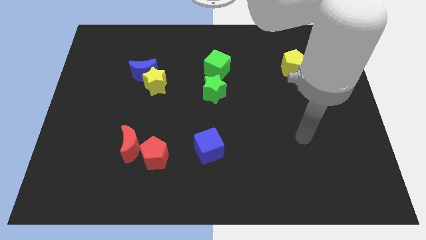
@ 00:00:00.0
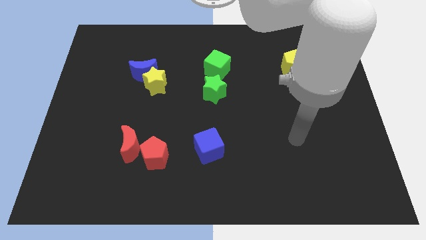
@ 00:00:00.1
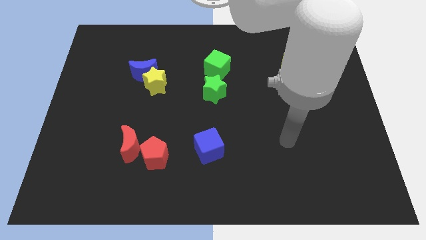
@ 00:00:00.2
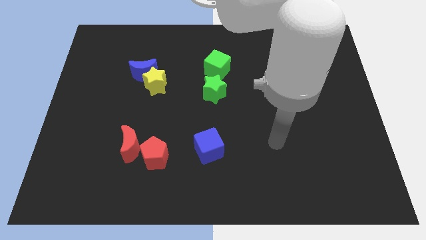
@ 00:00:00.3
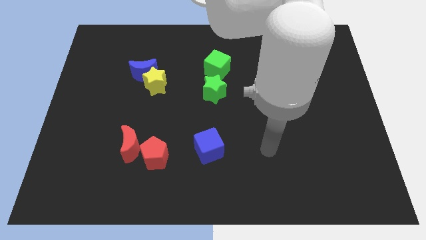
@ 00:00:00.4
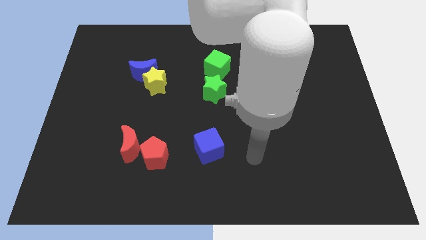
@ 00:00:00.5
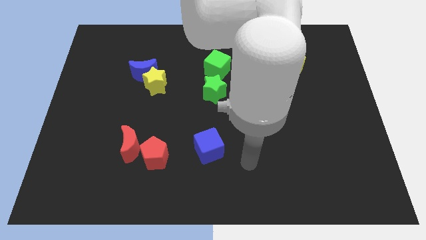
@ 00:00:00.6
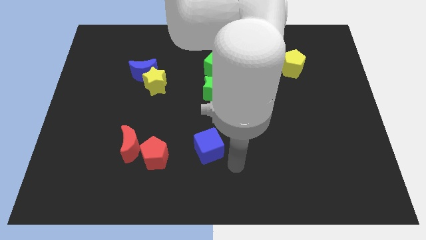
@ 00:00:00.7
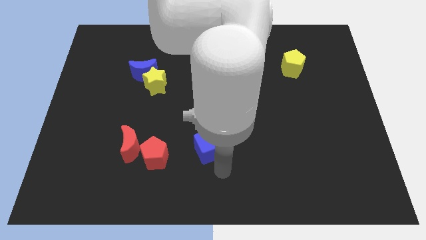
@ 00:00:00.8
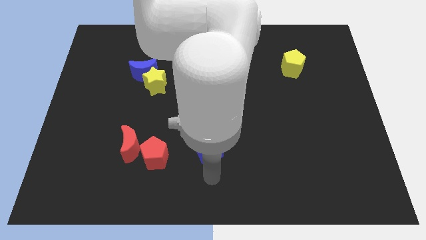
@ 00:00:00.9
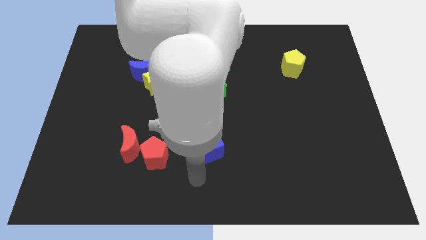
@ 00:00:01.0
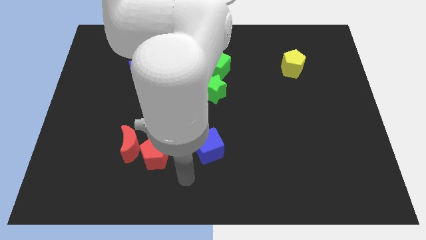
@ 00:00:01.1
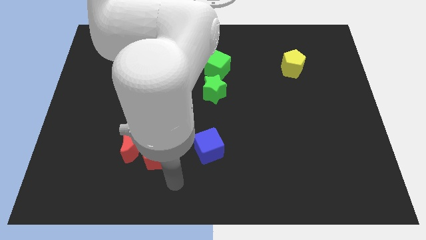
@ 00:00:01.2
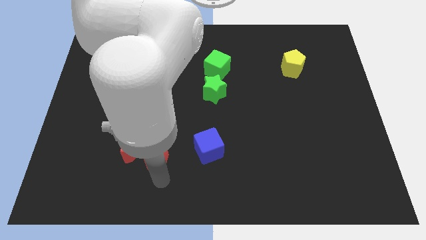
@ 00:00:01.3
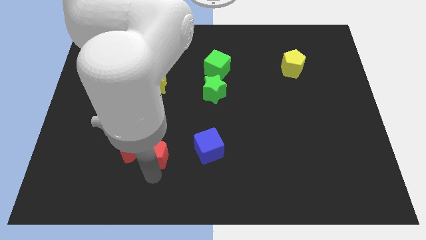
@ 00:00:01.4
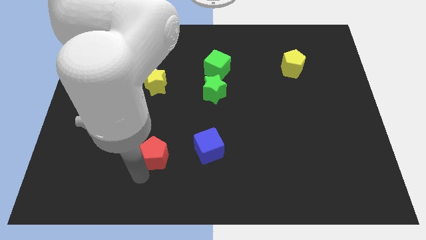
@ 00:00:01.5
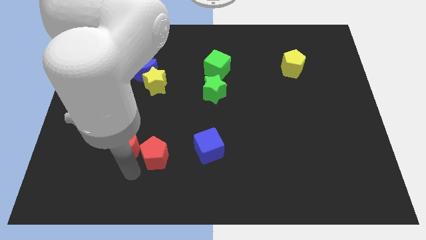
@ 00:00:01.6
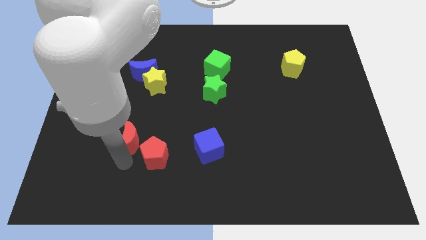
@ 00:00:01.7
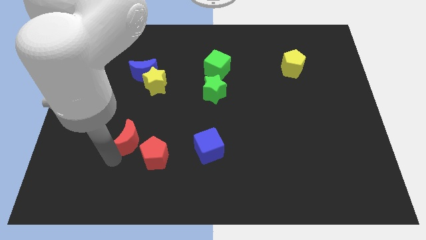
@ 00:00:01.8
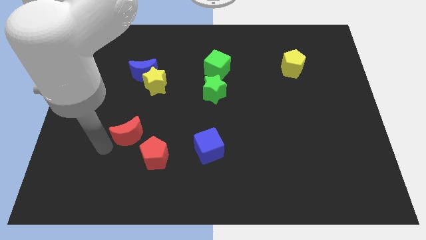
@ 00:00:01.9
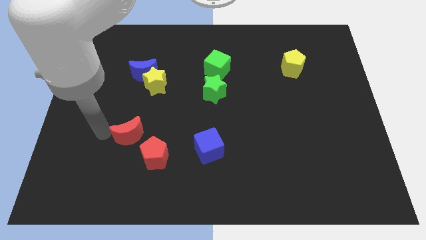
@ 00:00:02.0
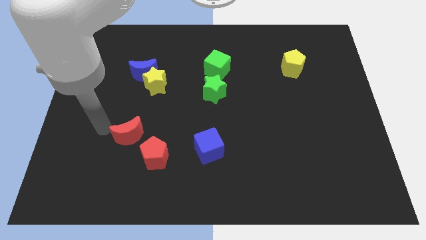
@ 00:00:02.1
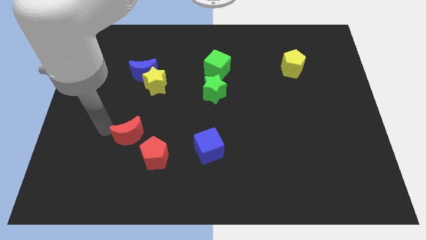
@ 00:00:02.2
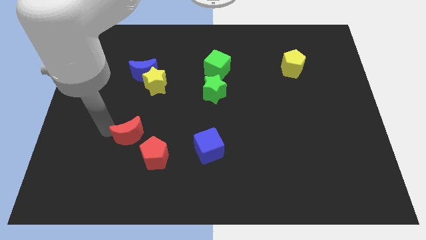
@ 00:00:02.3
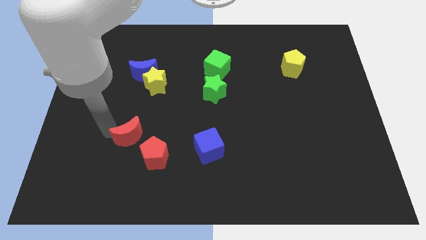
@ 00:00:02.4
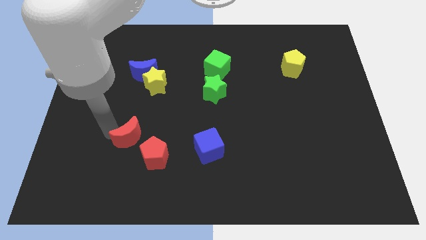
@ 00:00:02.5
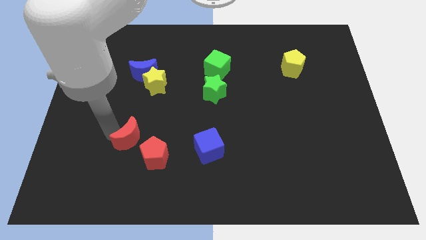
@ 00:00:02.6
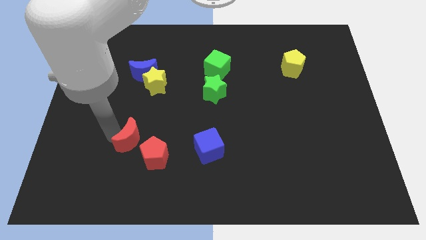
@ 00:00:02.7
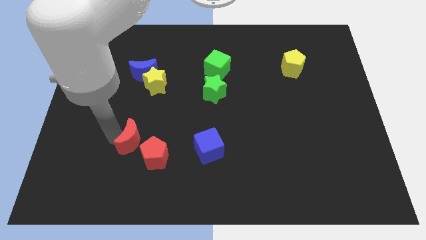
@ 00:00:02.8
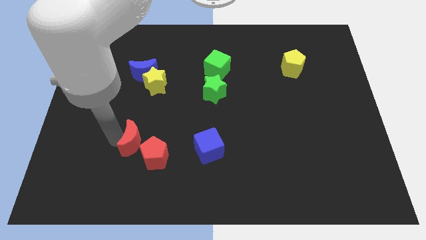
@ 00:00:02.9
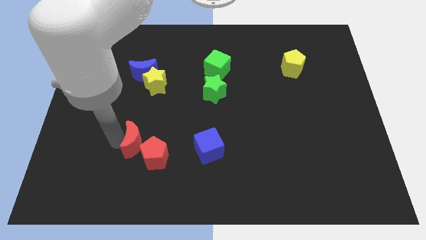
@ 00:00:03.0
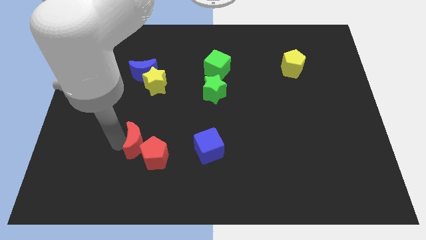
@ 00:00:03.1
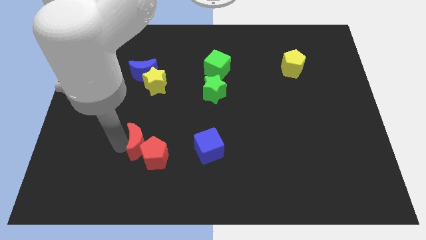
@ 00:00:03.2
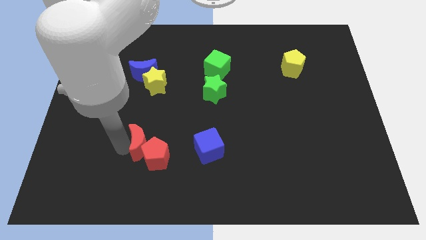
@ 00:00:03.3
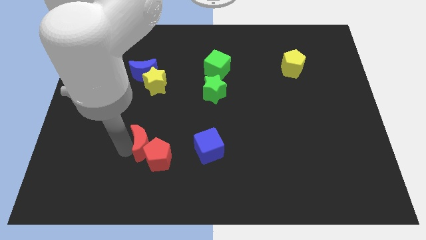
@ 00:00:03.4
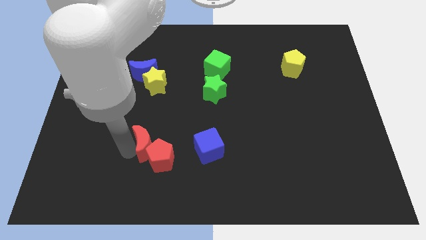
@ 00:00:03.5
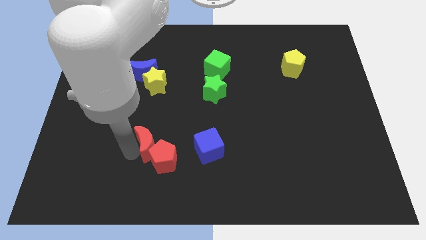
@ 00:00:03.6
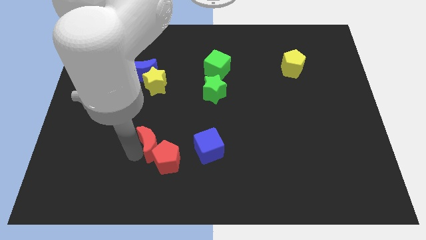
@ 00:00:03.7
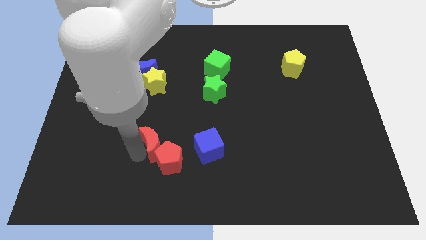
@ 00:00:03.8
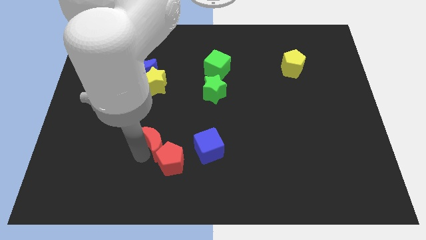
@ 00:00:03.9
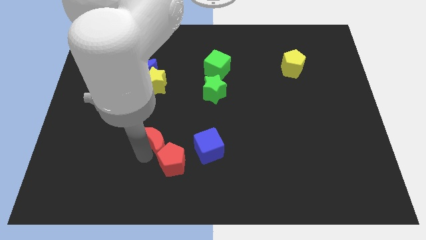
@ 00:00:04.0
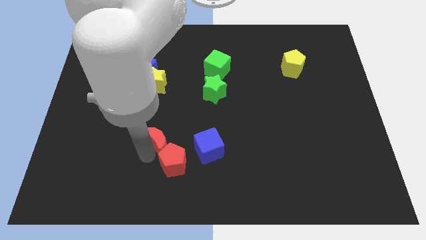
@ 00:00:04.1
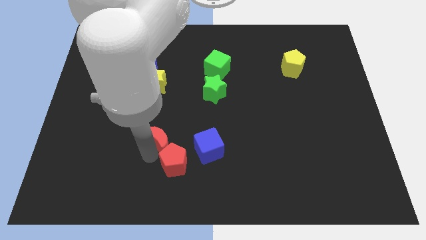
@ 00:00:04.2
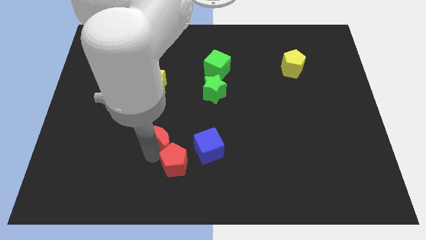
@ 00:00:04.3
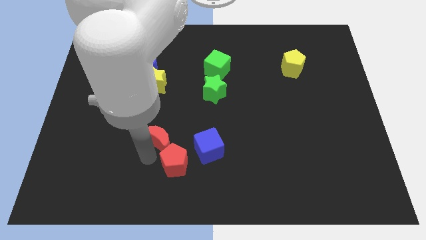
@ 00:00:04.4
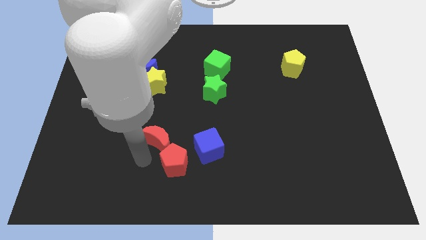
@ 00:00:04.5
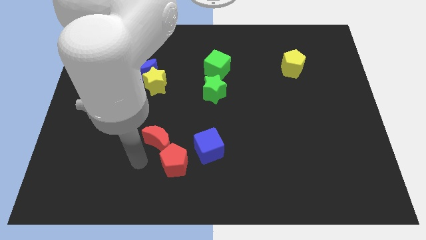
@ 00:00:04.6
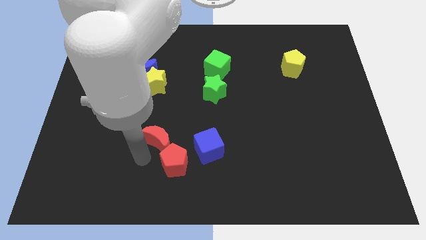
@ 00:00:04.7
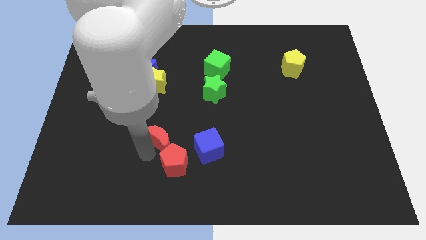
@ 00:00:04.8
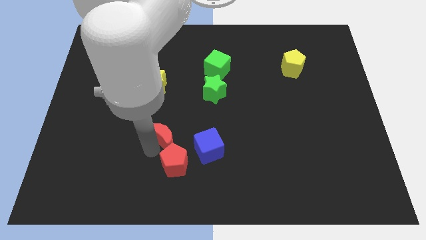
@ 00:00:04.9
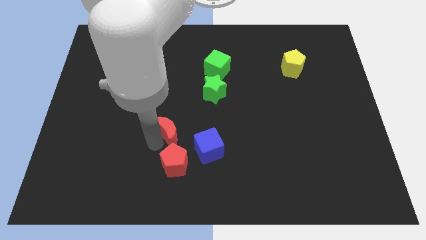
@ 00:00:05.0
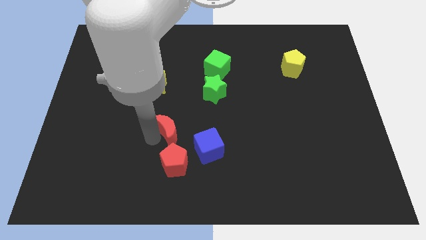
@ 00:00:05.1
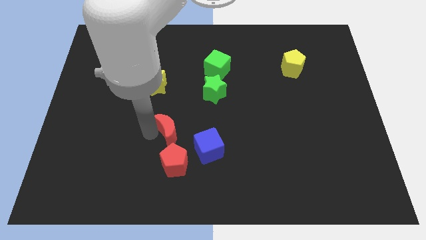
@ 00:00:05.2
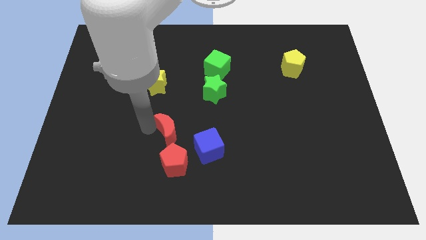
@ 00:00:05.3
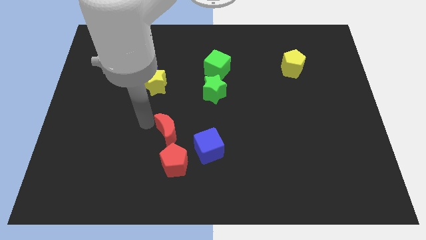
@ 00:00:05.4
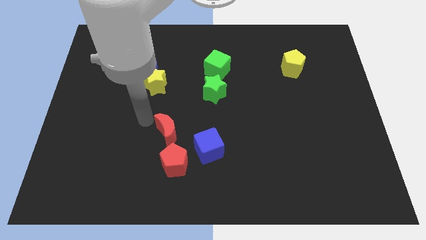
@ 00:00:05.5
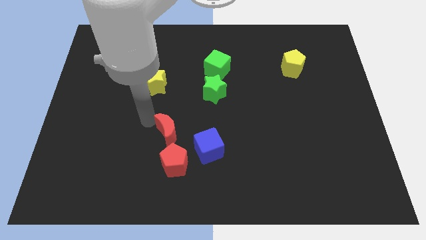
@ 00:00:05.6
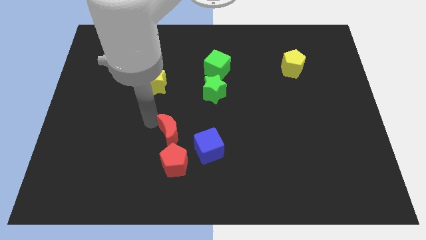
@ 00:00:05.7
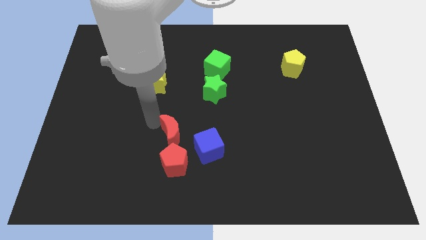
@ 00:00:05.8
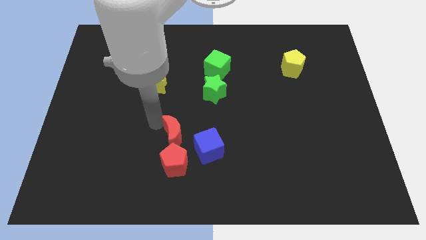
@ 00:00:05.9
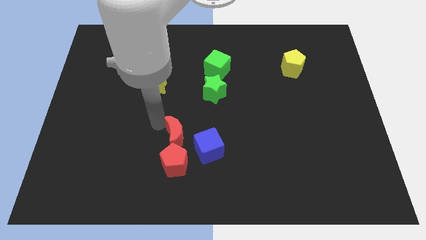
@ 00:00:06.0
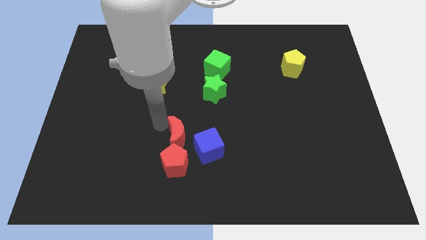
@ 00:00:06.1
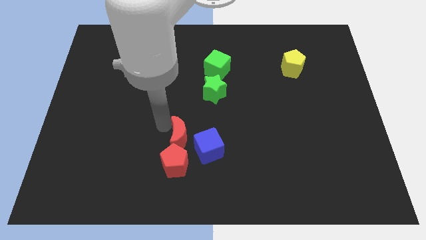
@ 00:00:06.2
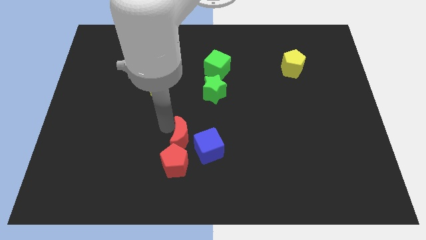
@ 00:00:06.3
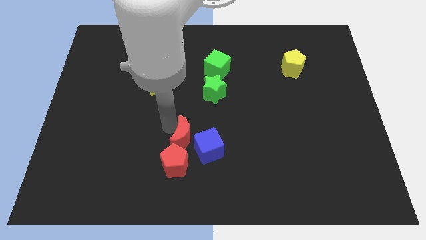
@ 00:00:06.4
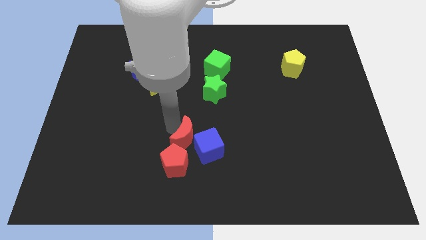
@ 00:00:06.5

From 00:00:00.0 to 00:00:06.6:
put the red moon to the blue cube
